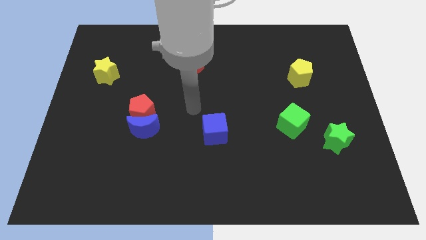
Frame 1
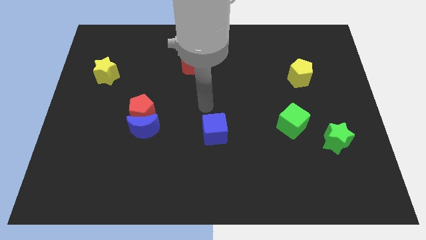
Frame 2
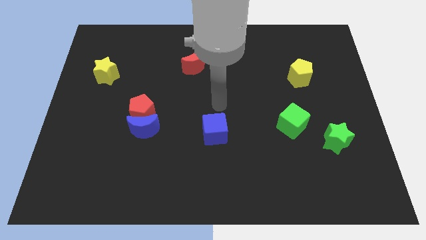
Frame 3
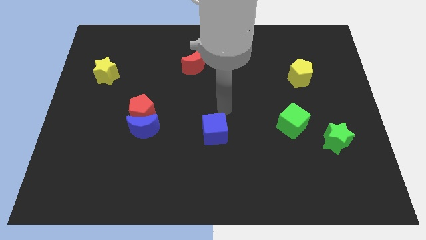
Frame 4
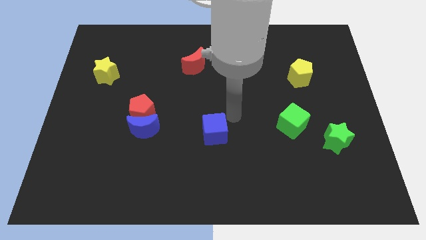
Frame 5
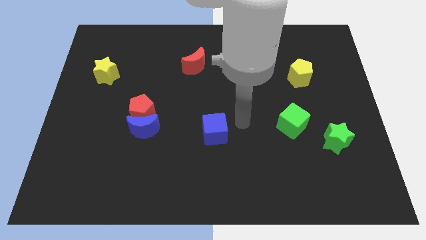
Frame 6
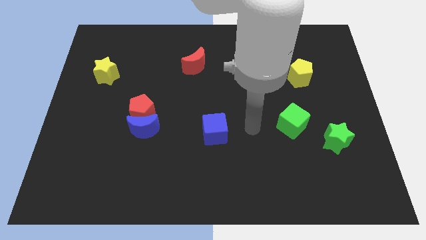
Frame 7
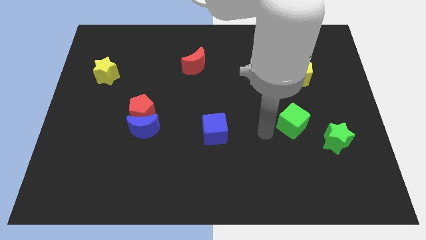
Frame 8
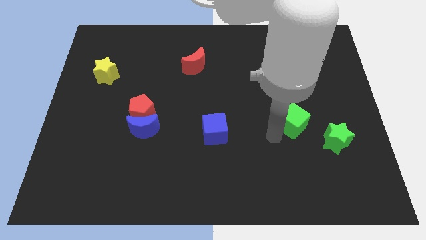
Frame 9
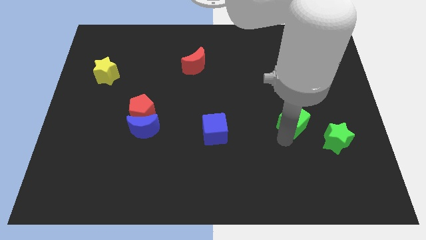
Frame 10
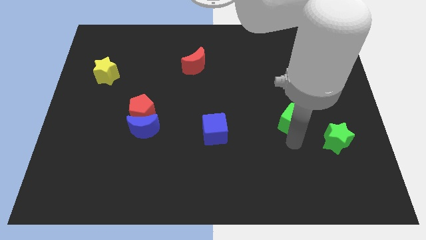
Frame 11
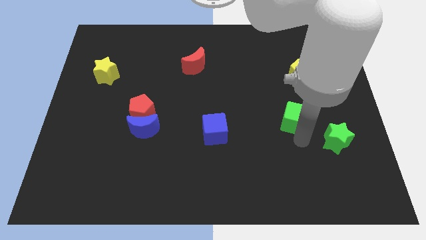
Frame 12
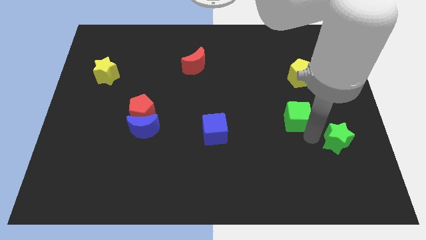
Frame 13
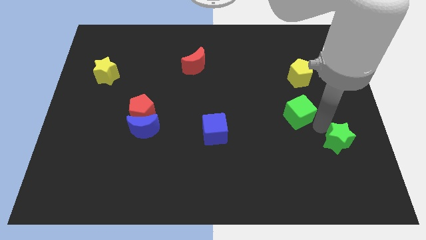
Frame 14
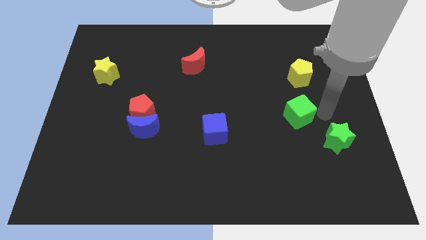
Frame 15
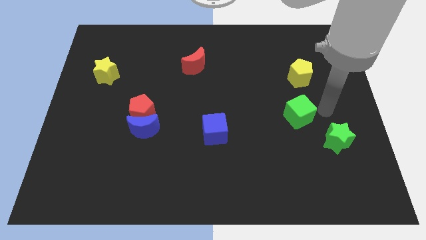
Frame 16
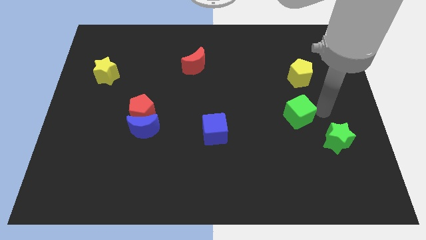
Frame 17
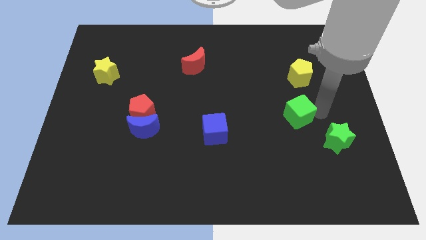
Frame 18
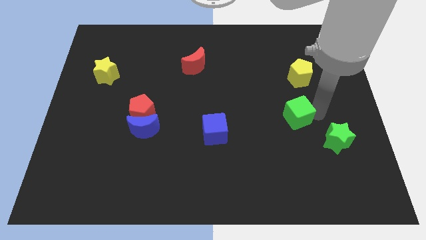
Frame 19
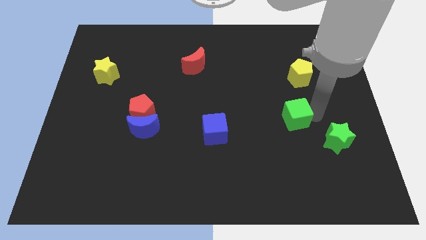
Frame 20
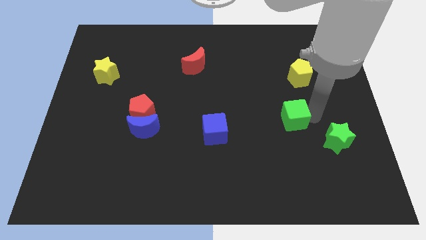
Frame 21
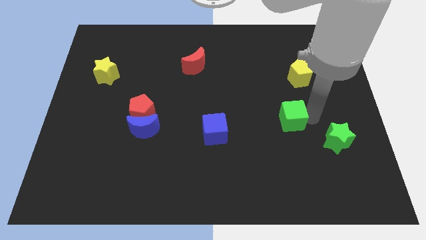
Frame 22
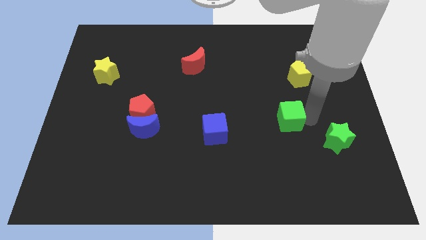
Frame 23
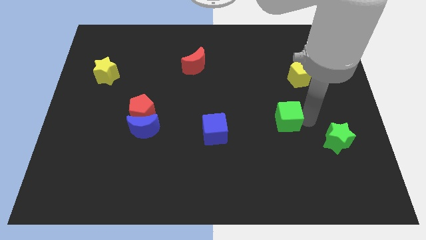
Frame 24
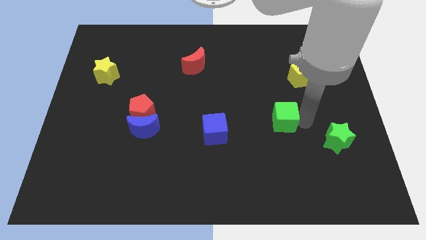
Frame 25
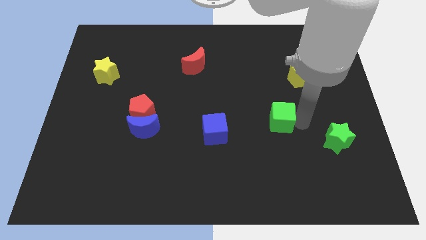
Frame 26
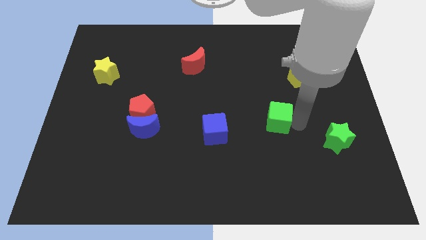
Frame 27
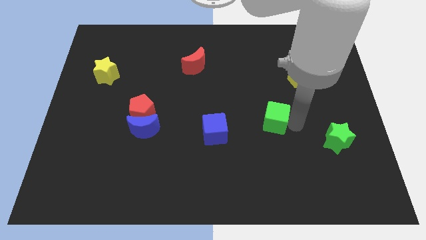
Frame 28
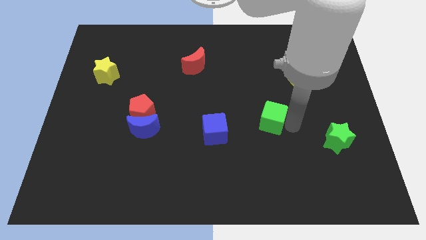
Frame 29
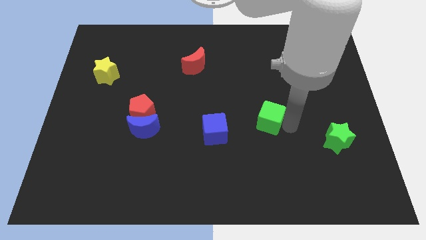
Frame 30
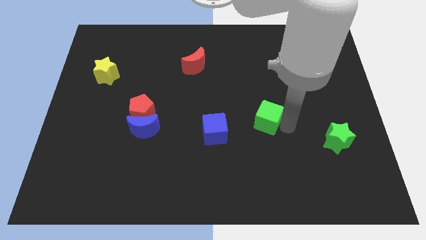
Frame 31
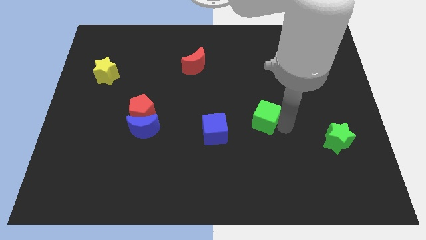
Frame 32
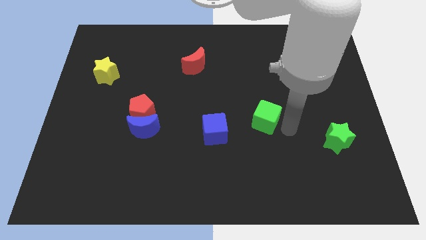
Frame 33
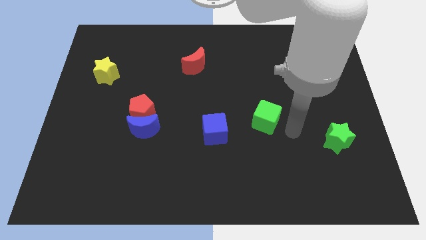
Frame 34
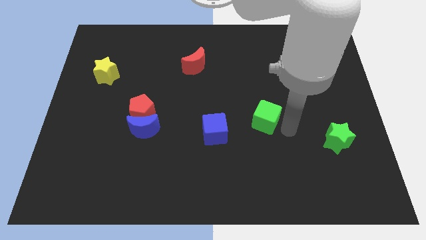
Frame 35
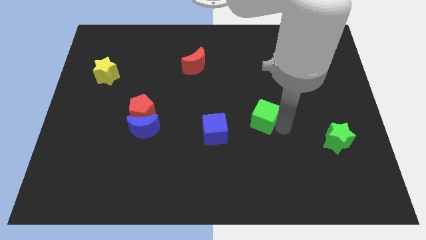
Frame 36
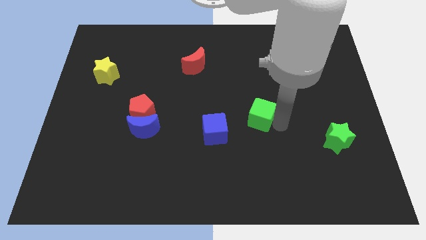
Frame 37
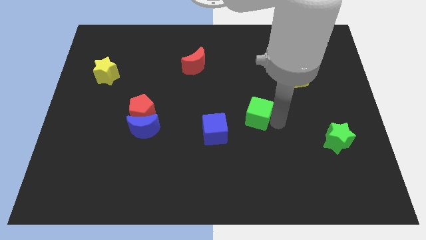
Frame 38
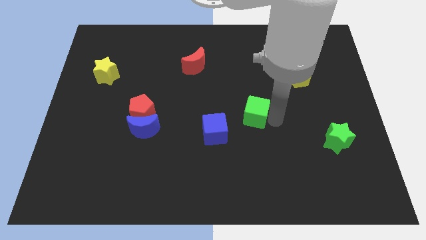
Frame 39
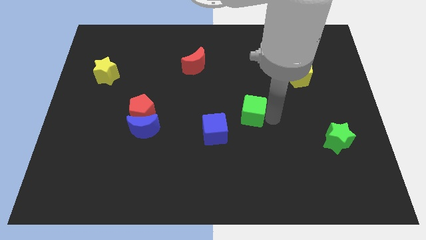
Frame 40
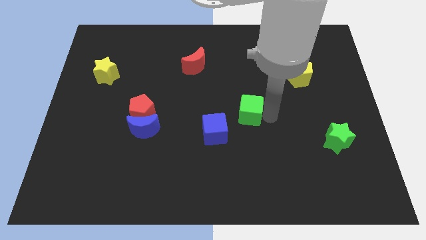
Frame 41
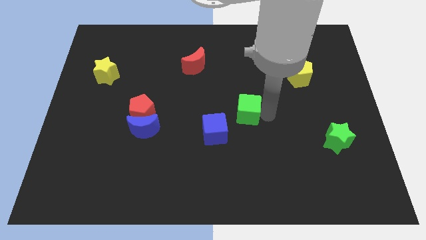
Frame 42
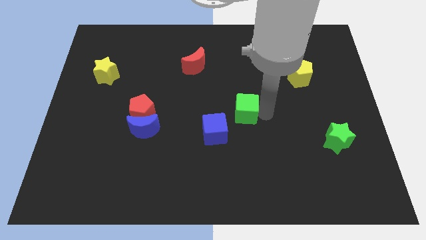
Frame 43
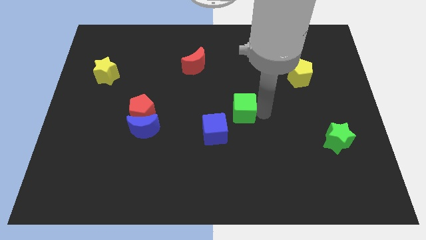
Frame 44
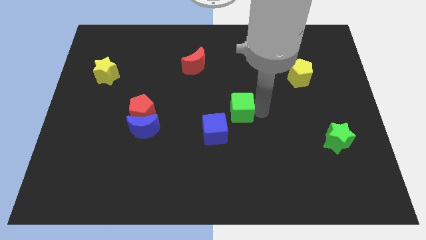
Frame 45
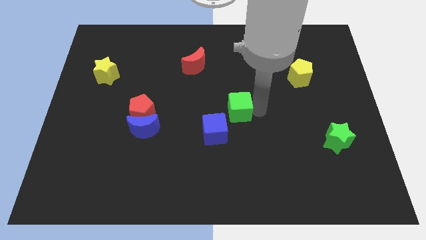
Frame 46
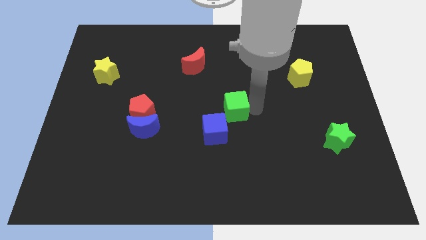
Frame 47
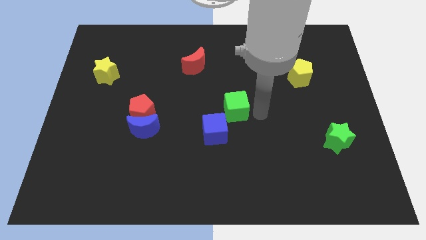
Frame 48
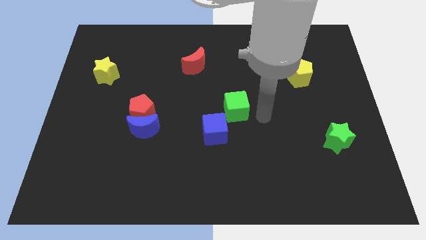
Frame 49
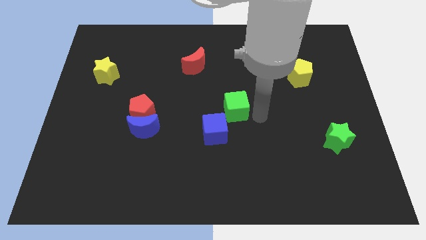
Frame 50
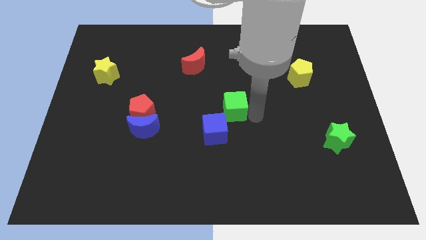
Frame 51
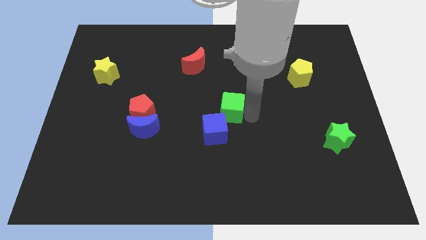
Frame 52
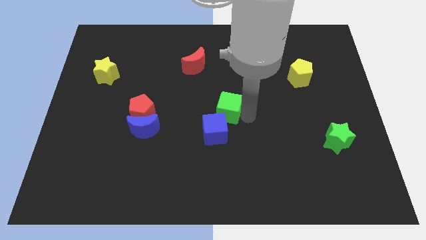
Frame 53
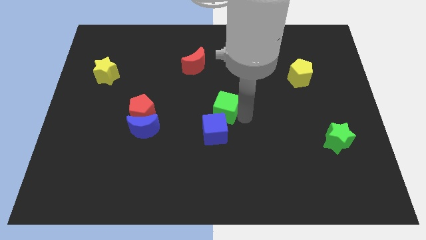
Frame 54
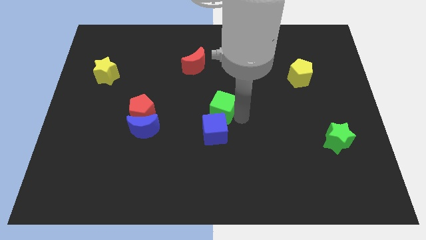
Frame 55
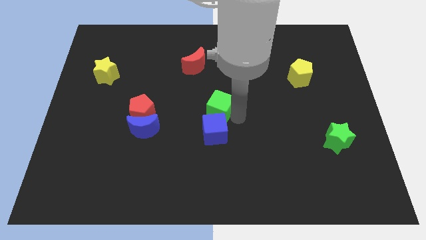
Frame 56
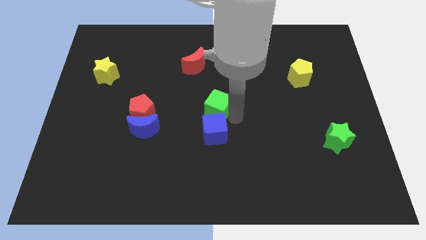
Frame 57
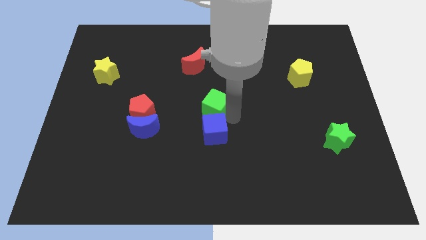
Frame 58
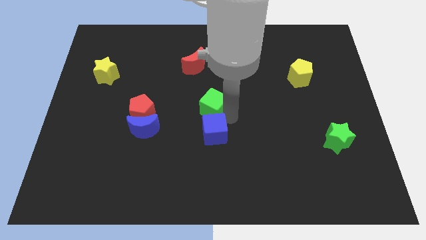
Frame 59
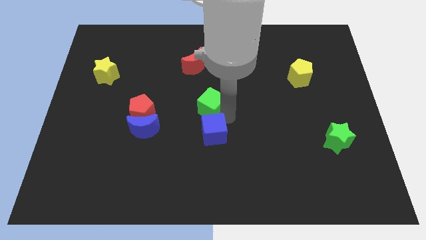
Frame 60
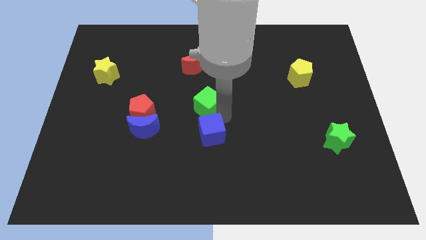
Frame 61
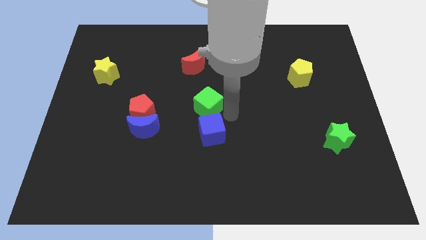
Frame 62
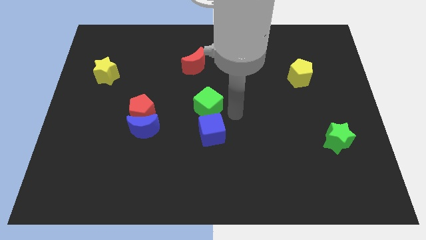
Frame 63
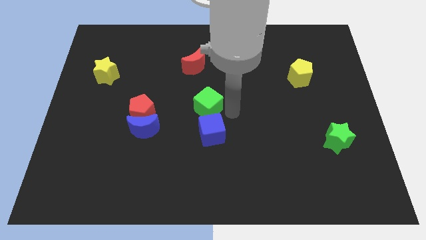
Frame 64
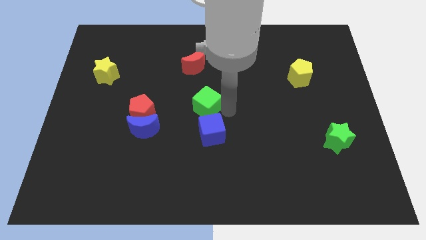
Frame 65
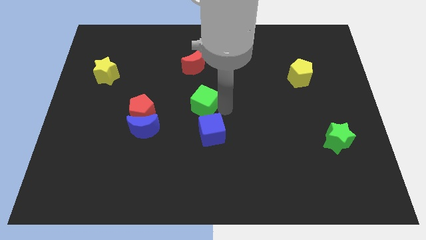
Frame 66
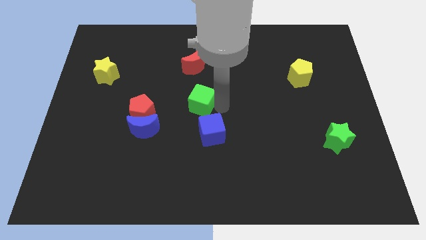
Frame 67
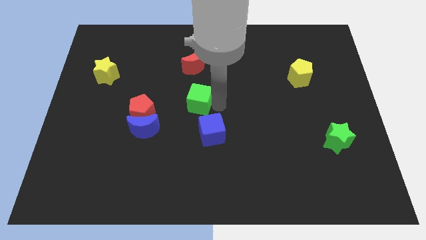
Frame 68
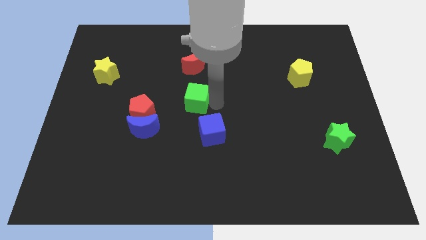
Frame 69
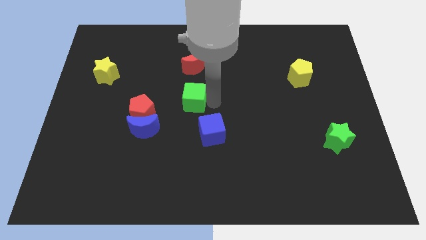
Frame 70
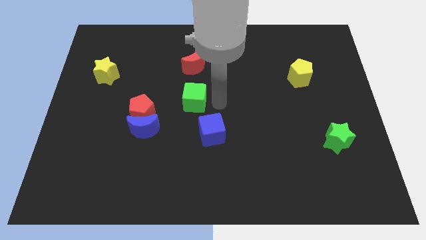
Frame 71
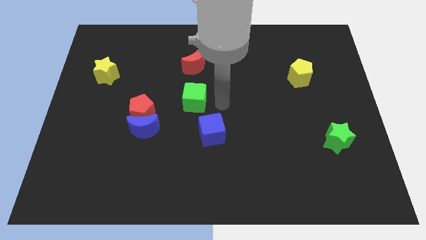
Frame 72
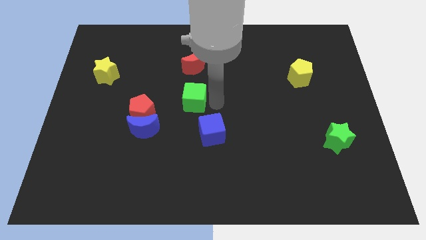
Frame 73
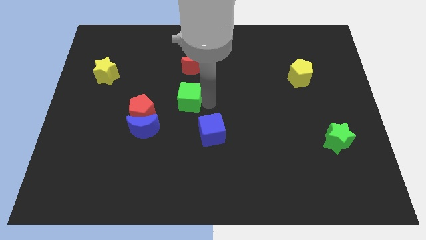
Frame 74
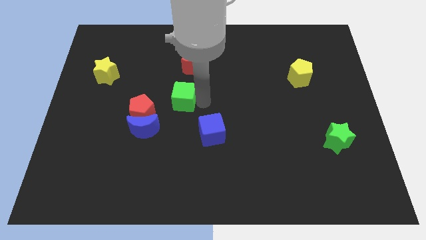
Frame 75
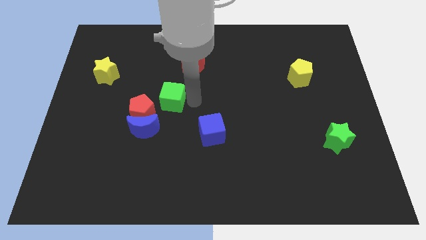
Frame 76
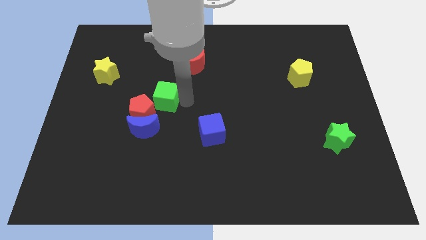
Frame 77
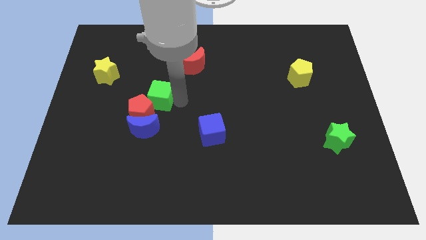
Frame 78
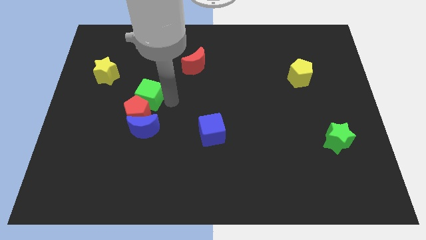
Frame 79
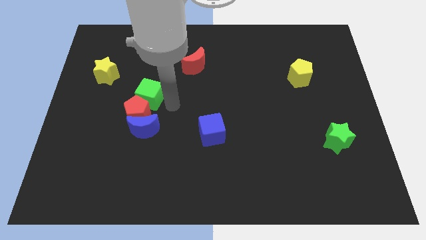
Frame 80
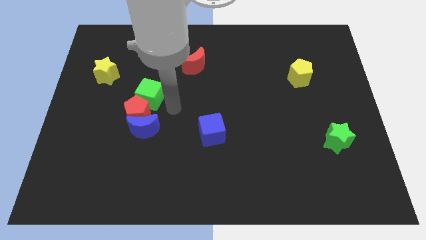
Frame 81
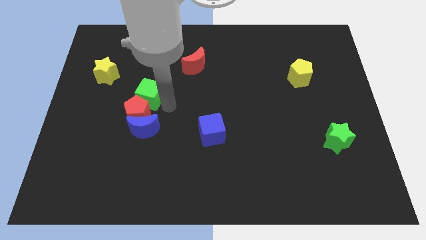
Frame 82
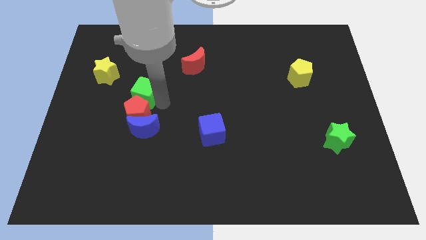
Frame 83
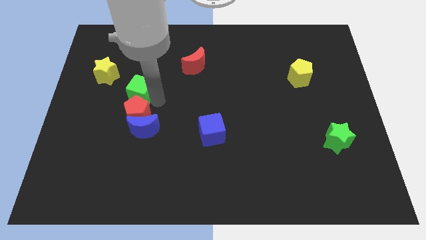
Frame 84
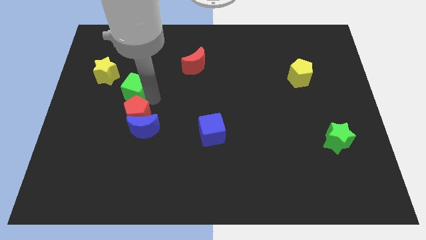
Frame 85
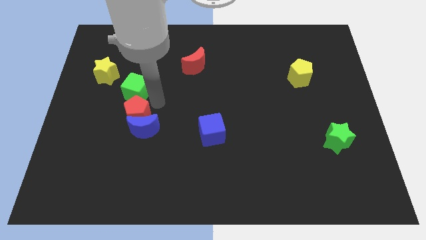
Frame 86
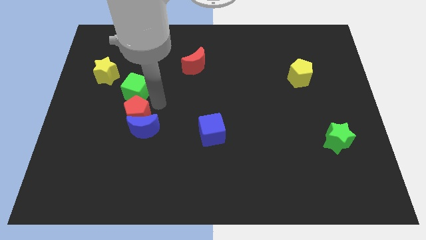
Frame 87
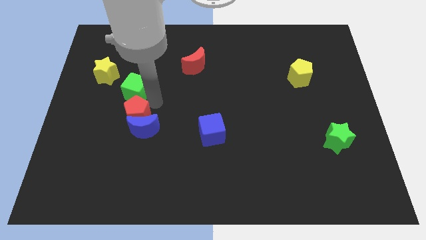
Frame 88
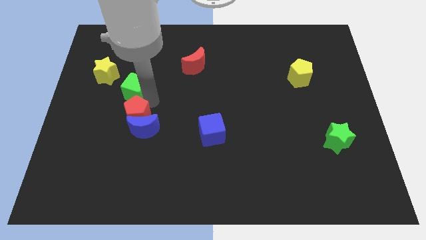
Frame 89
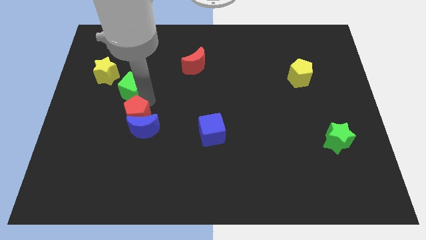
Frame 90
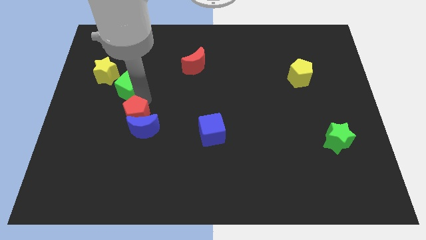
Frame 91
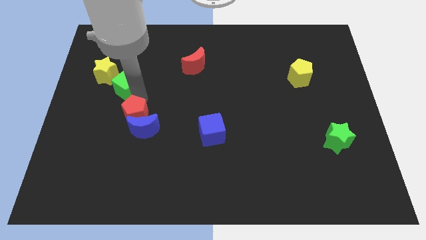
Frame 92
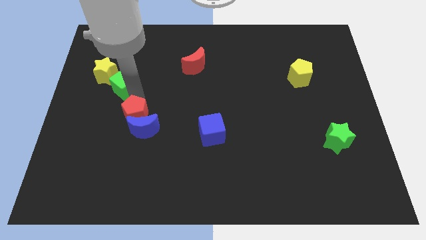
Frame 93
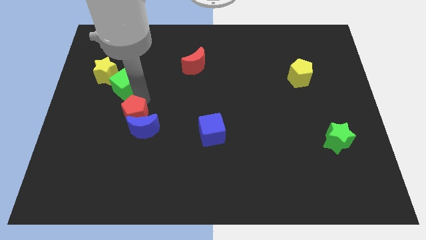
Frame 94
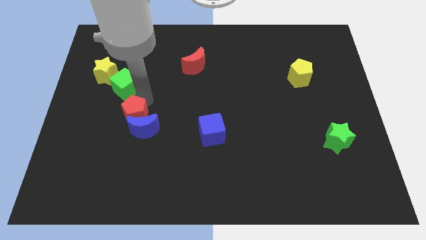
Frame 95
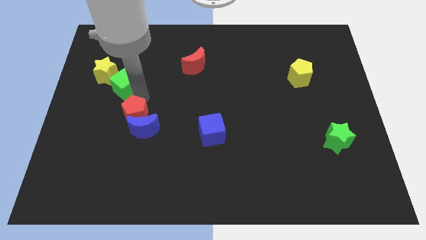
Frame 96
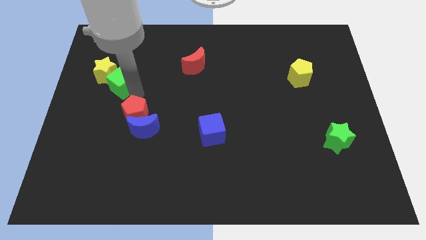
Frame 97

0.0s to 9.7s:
put the green cube next to the yellow star
